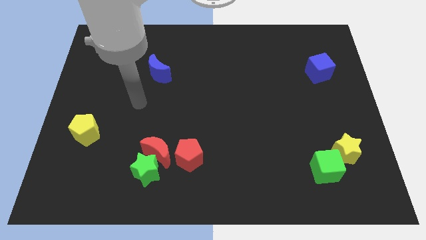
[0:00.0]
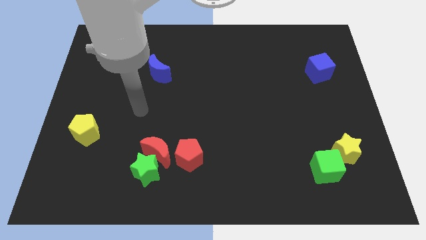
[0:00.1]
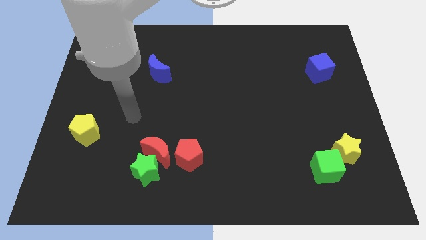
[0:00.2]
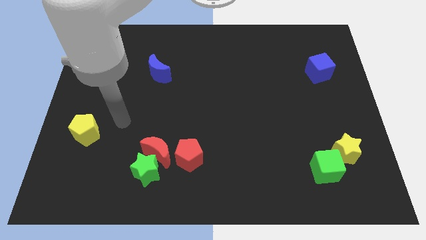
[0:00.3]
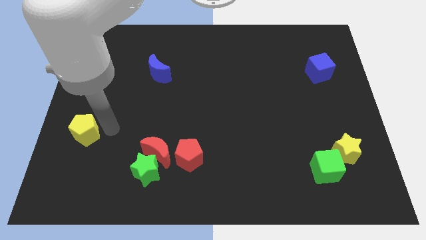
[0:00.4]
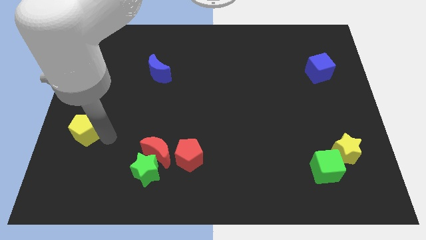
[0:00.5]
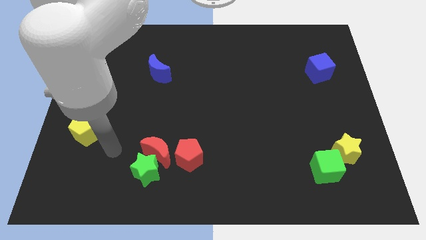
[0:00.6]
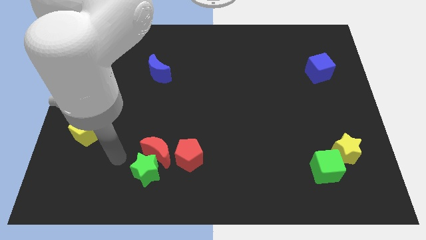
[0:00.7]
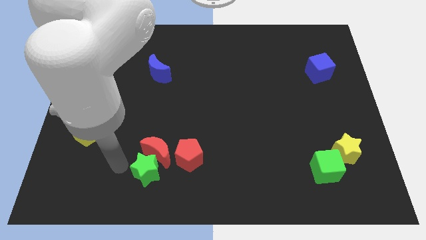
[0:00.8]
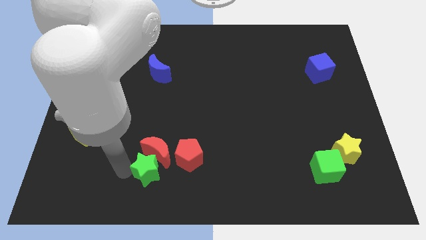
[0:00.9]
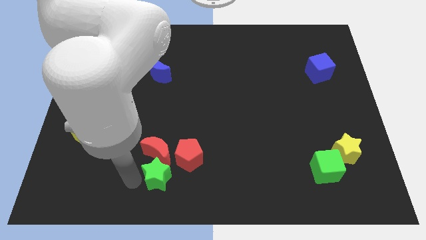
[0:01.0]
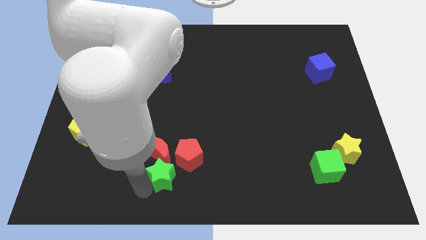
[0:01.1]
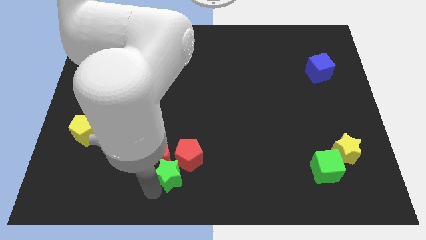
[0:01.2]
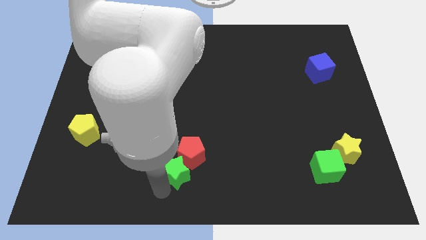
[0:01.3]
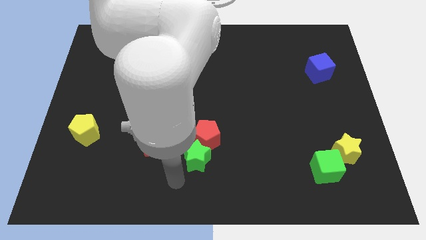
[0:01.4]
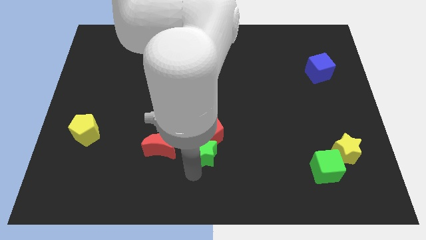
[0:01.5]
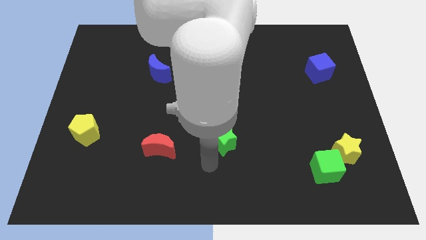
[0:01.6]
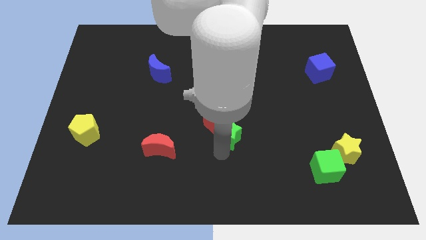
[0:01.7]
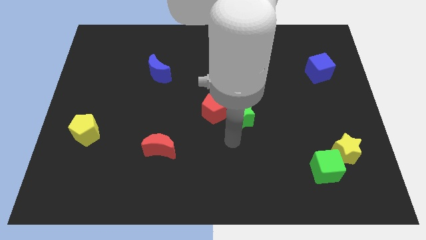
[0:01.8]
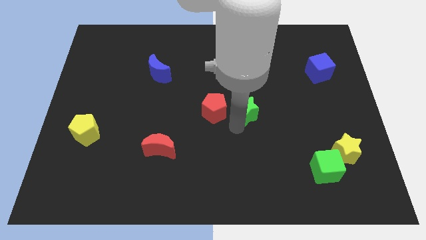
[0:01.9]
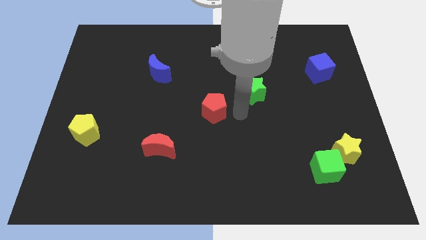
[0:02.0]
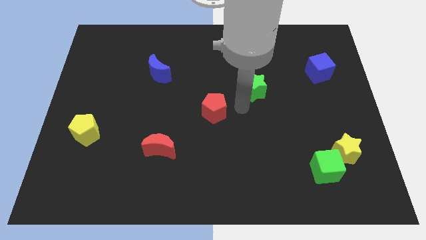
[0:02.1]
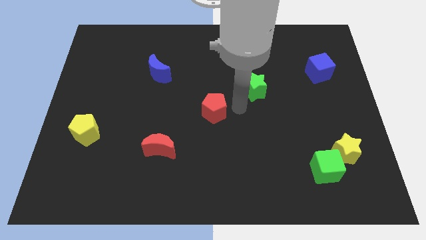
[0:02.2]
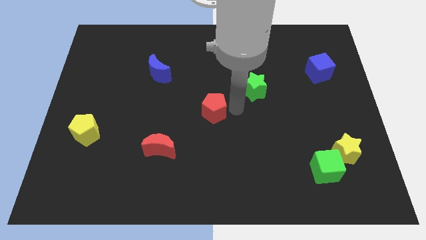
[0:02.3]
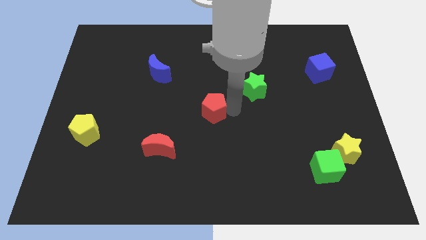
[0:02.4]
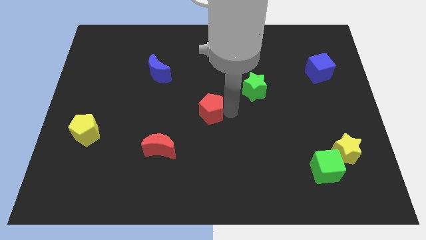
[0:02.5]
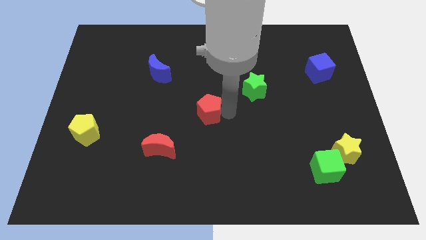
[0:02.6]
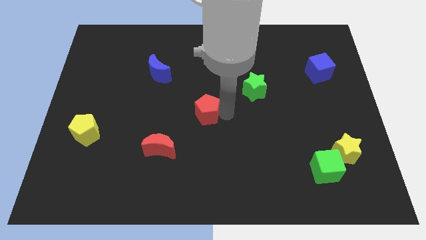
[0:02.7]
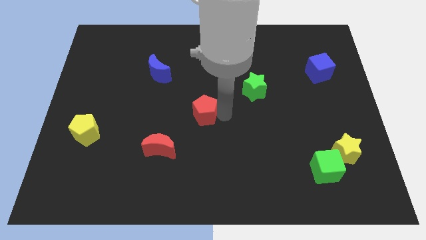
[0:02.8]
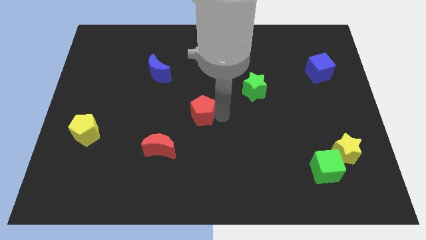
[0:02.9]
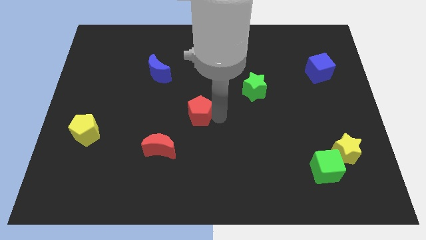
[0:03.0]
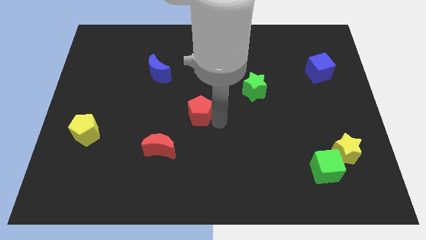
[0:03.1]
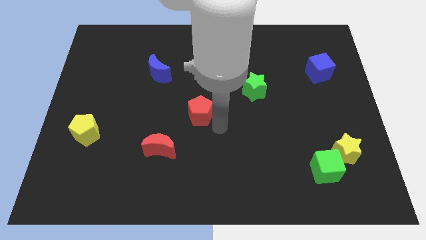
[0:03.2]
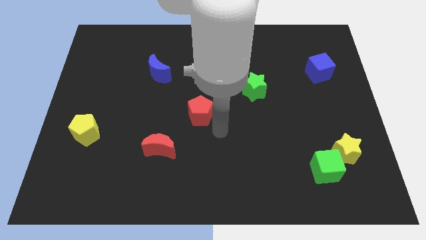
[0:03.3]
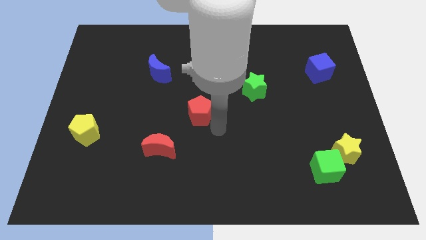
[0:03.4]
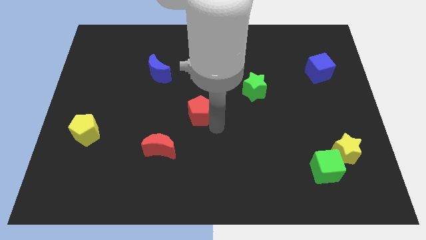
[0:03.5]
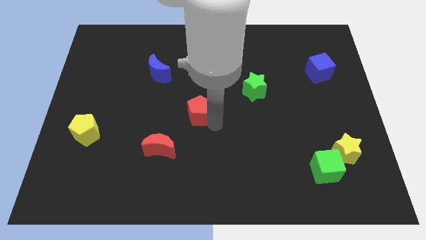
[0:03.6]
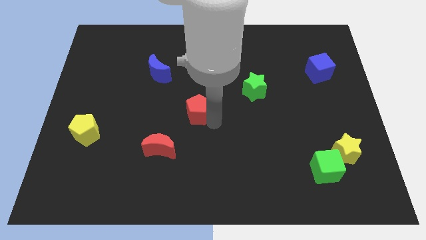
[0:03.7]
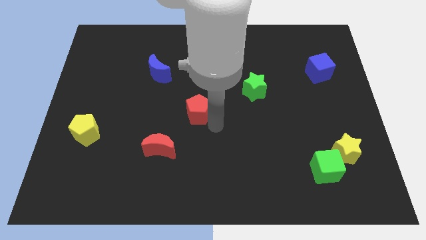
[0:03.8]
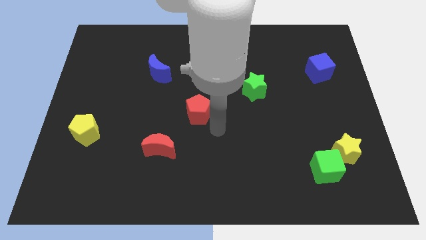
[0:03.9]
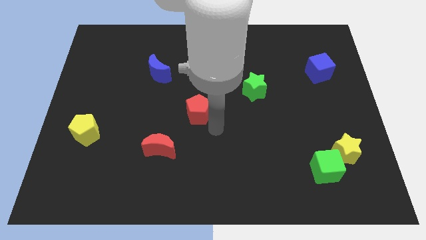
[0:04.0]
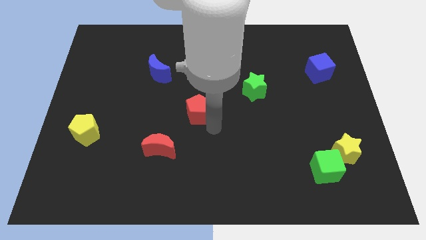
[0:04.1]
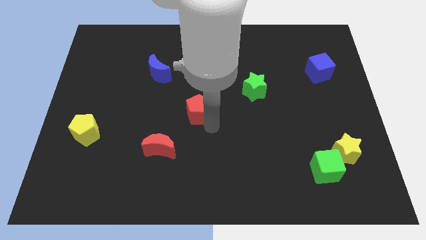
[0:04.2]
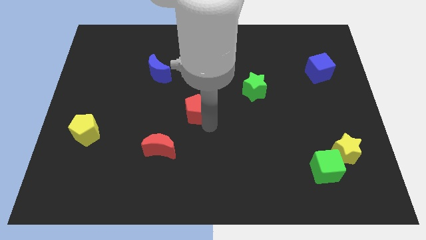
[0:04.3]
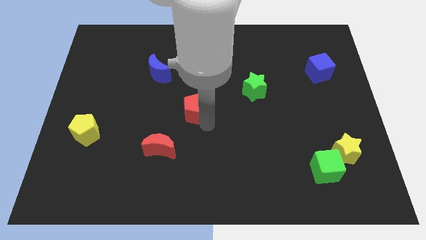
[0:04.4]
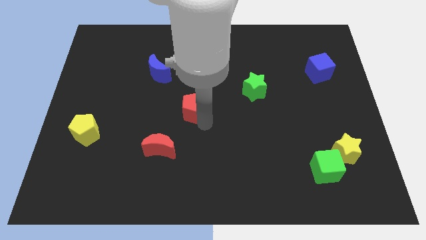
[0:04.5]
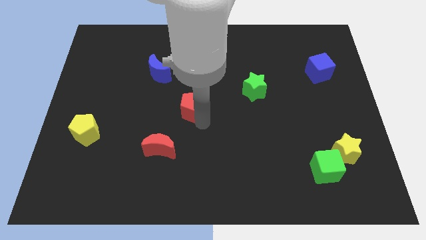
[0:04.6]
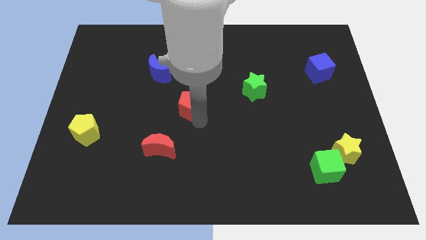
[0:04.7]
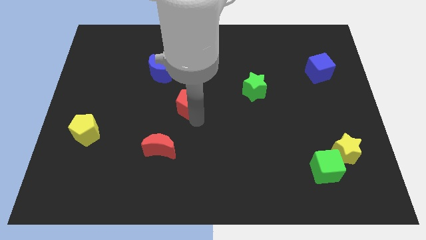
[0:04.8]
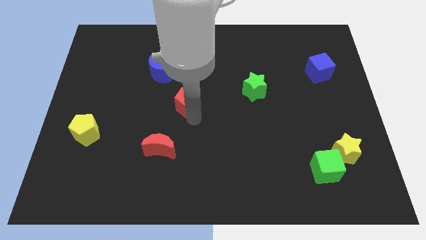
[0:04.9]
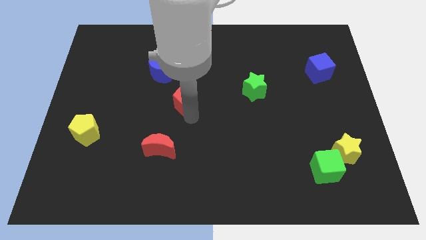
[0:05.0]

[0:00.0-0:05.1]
put the red pentagon to the bottom right of the blue moon

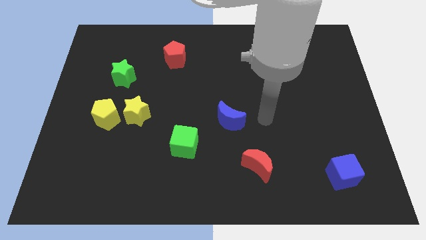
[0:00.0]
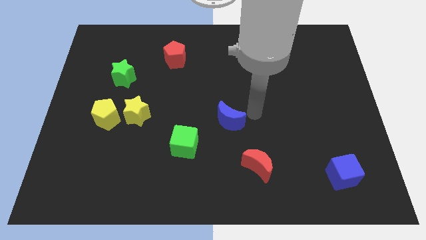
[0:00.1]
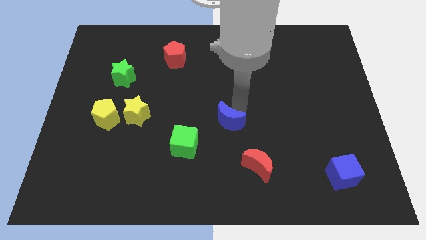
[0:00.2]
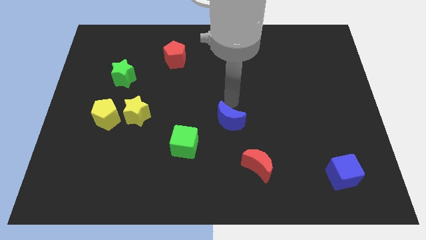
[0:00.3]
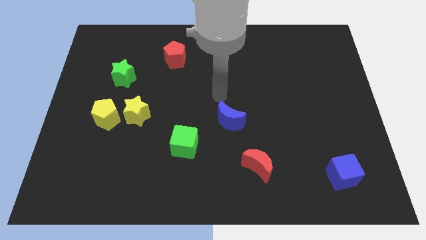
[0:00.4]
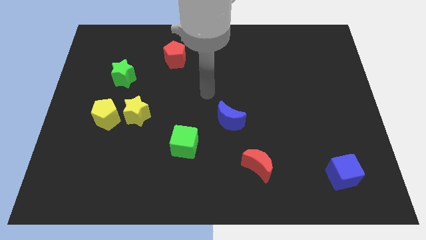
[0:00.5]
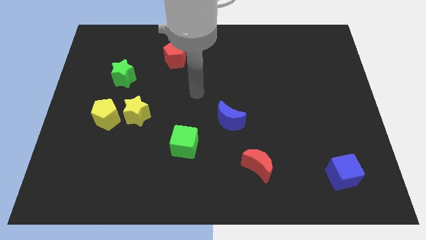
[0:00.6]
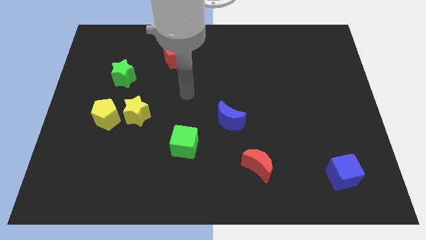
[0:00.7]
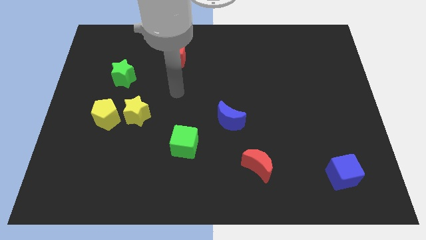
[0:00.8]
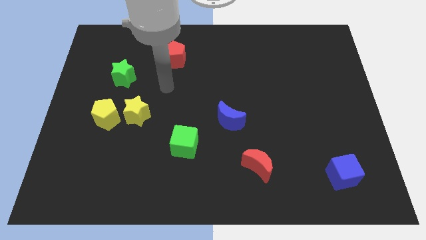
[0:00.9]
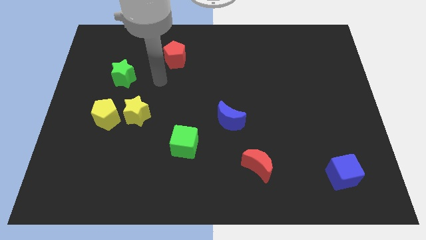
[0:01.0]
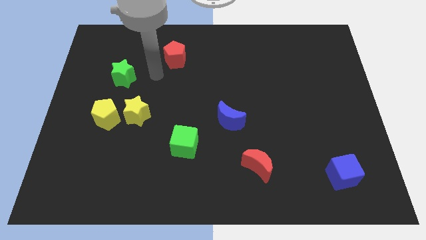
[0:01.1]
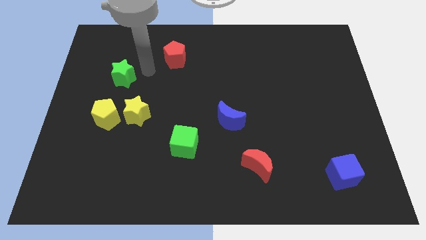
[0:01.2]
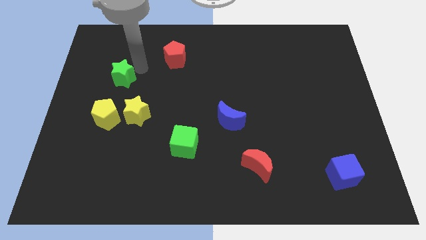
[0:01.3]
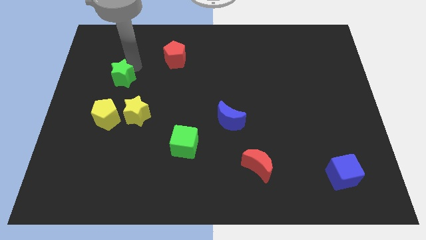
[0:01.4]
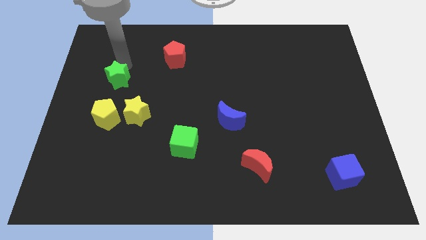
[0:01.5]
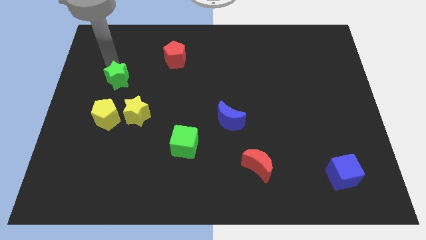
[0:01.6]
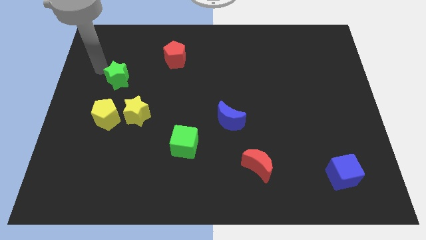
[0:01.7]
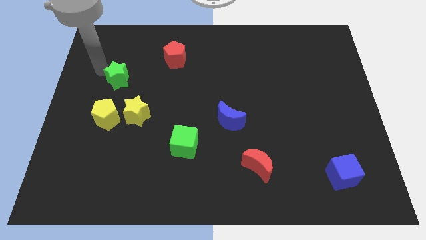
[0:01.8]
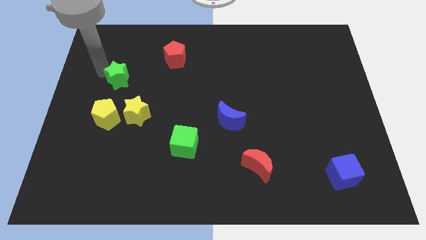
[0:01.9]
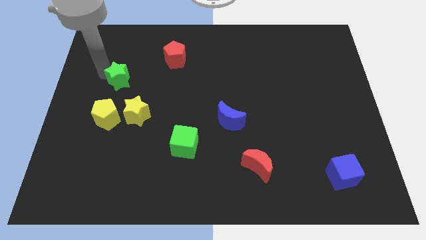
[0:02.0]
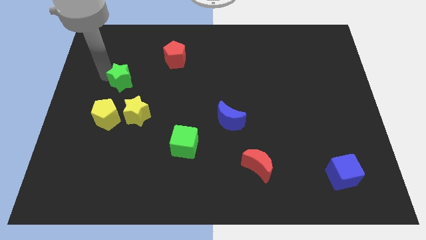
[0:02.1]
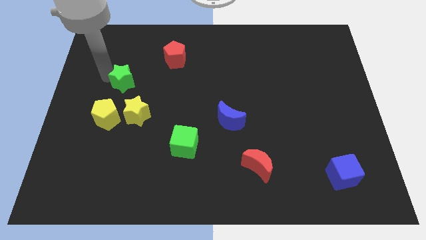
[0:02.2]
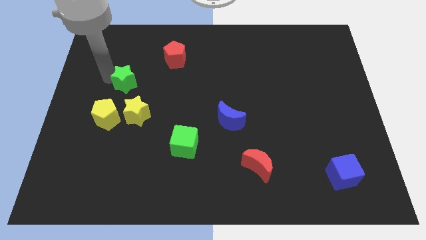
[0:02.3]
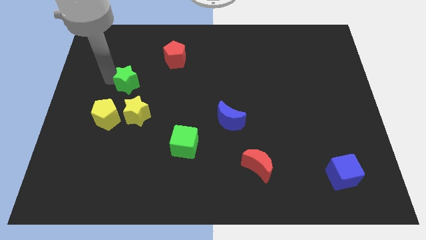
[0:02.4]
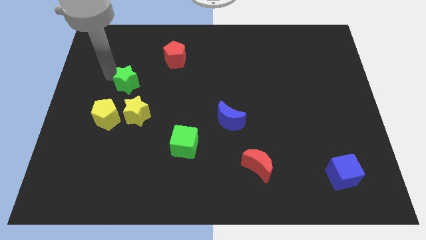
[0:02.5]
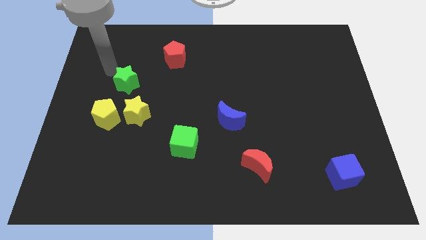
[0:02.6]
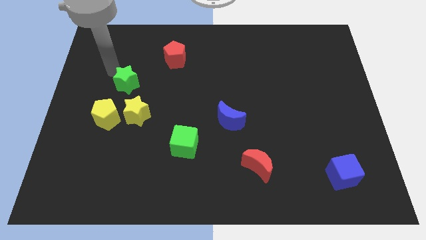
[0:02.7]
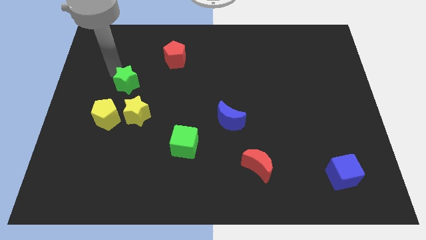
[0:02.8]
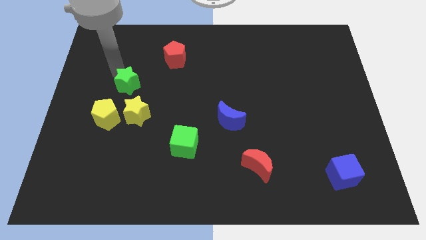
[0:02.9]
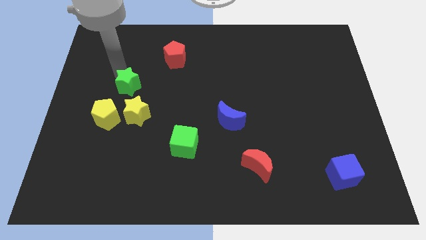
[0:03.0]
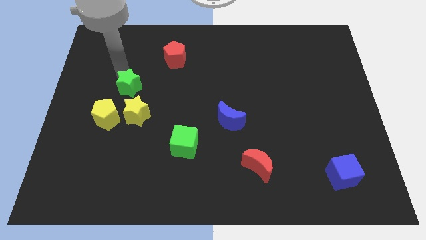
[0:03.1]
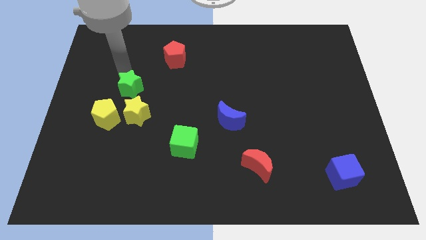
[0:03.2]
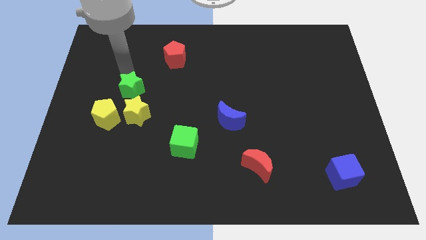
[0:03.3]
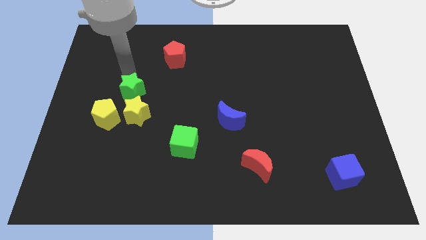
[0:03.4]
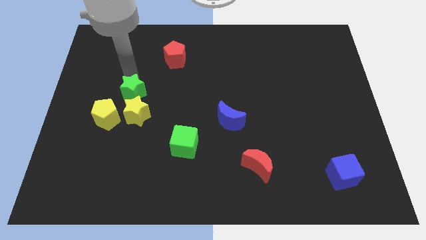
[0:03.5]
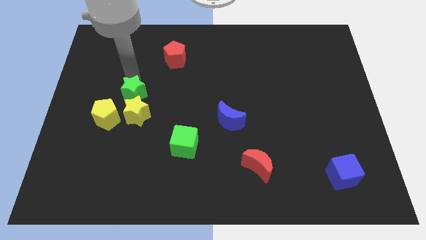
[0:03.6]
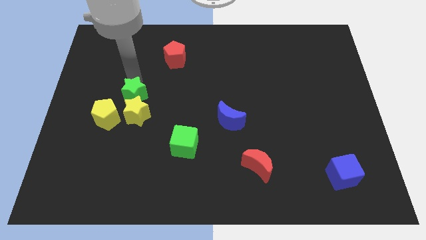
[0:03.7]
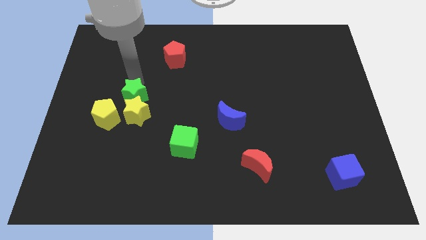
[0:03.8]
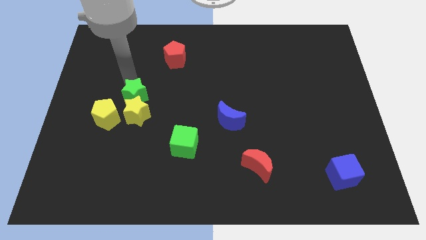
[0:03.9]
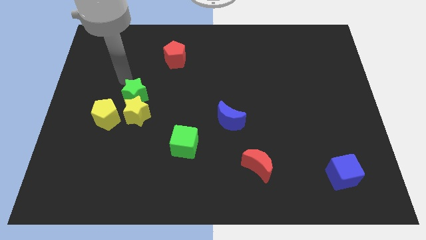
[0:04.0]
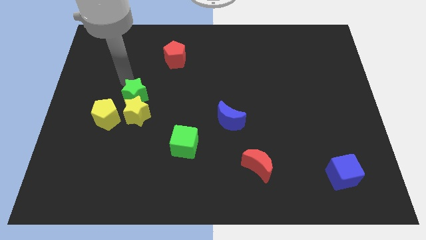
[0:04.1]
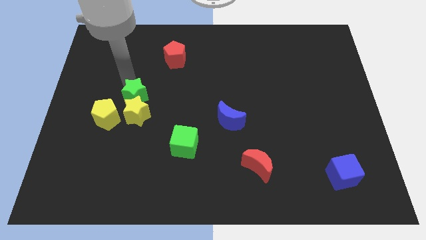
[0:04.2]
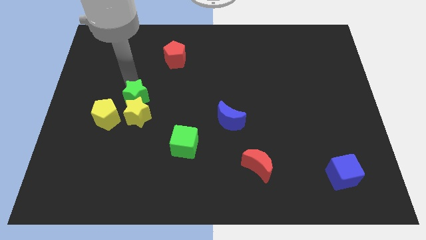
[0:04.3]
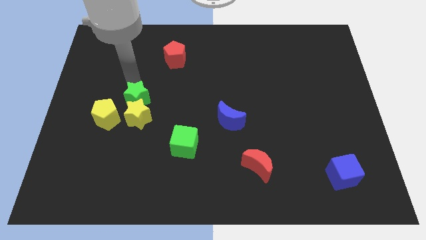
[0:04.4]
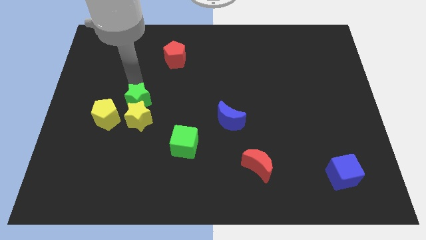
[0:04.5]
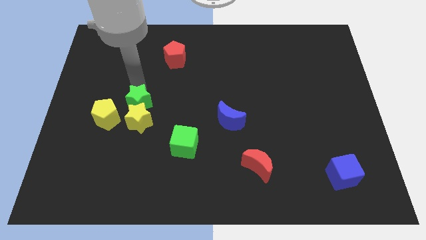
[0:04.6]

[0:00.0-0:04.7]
push the green star to the right side of the yellow pentagon
